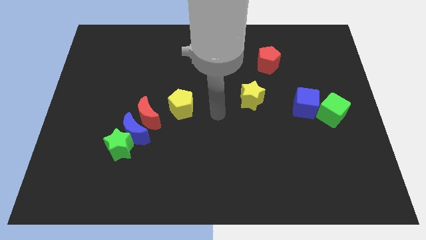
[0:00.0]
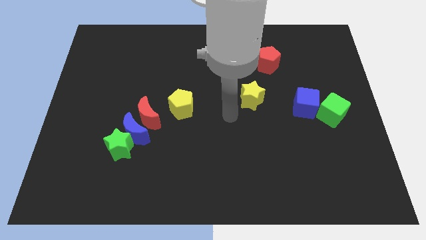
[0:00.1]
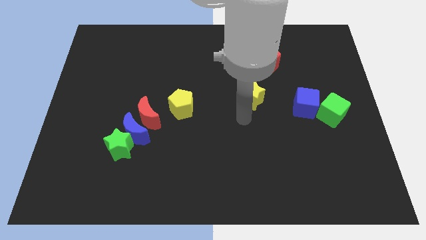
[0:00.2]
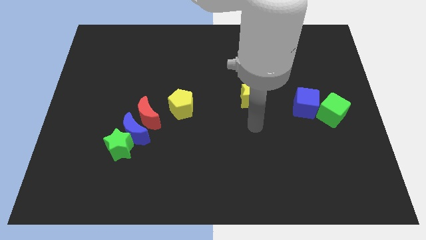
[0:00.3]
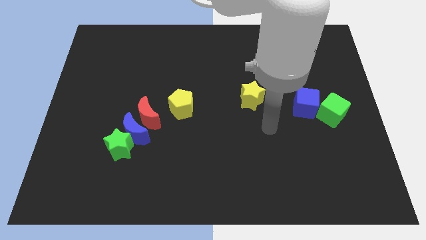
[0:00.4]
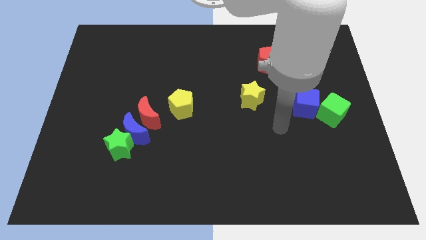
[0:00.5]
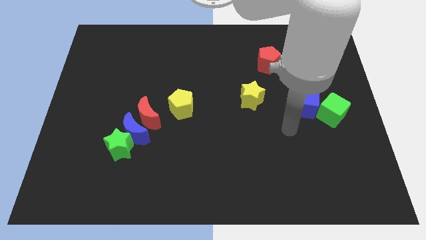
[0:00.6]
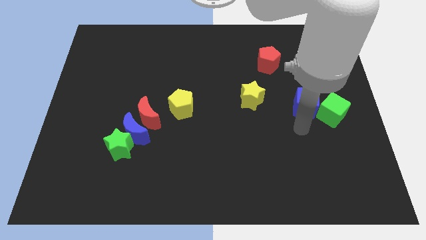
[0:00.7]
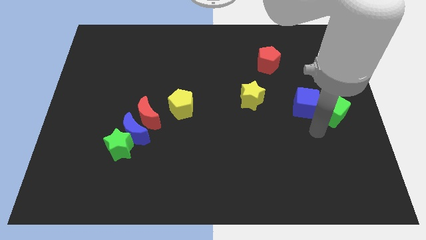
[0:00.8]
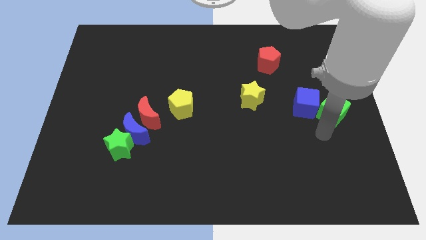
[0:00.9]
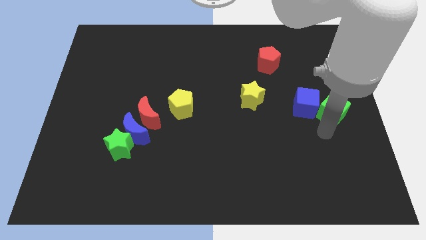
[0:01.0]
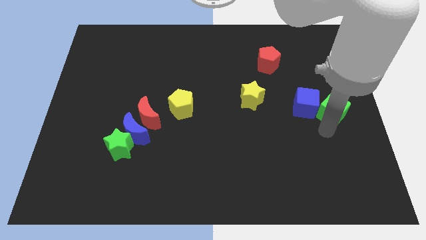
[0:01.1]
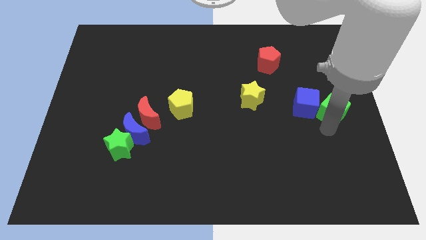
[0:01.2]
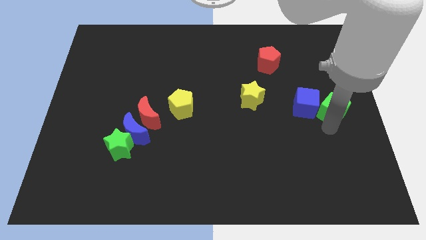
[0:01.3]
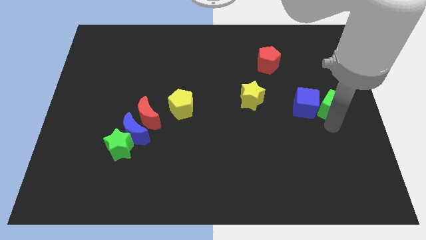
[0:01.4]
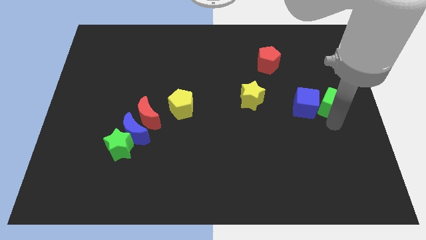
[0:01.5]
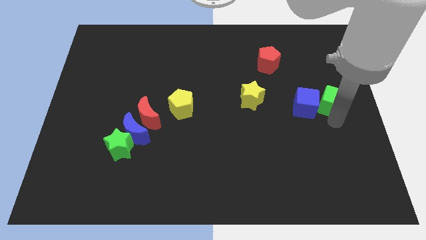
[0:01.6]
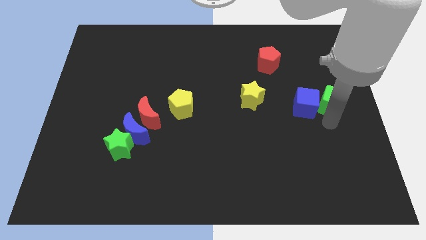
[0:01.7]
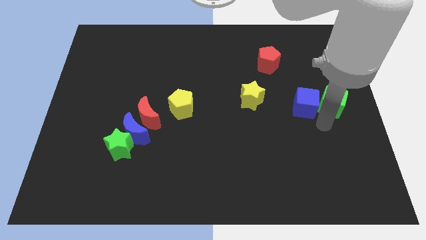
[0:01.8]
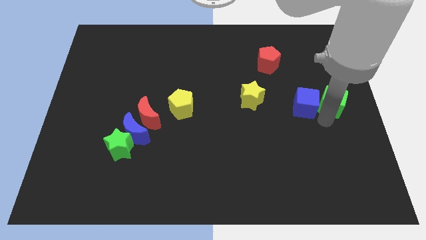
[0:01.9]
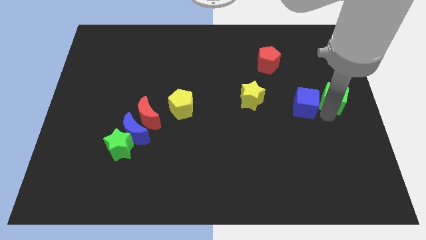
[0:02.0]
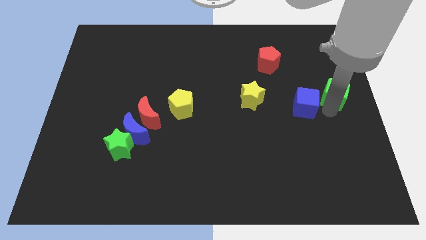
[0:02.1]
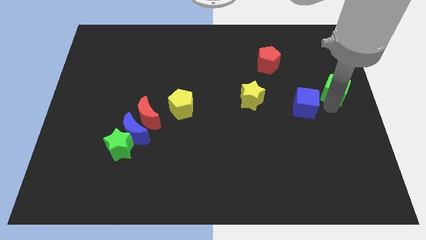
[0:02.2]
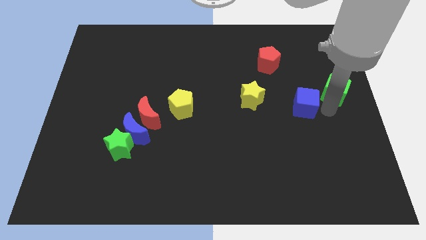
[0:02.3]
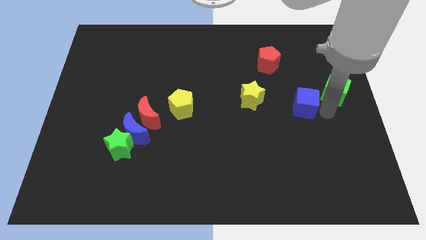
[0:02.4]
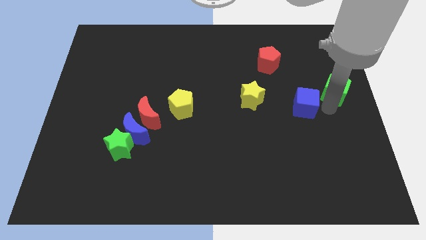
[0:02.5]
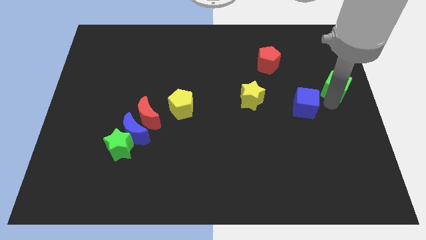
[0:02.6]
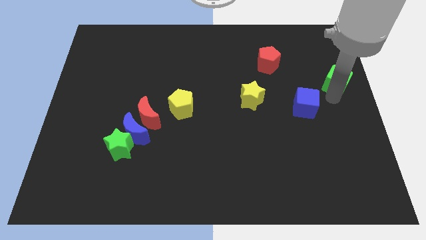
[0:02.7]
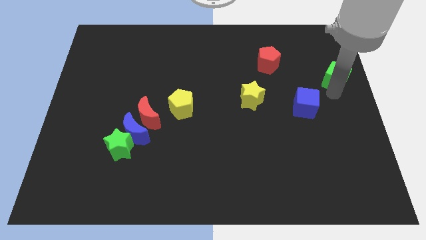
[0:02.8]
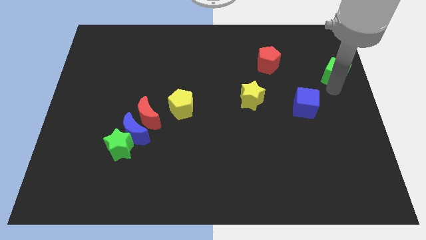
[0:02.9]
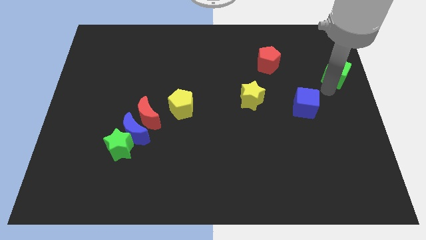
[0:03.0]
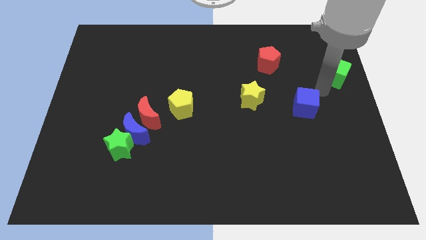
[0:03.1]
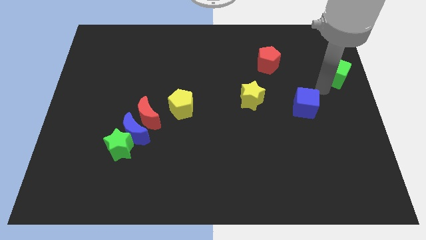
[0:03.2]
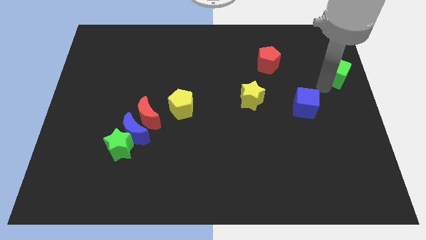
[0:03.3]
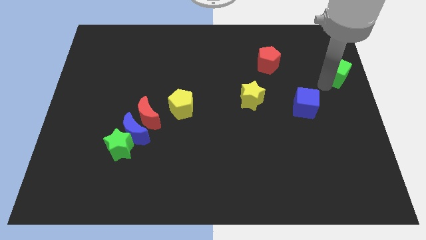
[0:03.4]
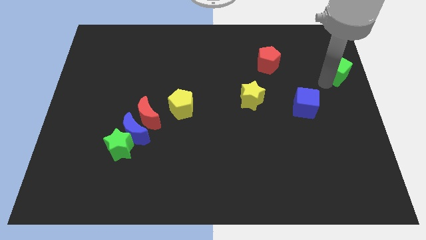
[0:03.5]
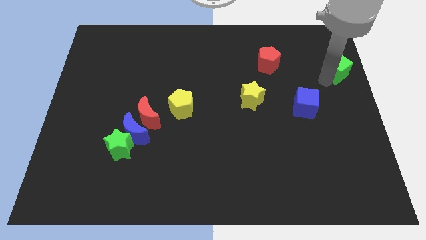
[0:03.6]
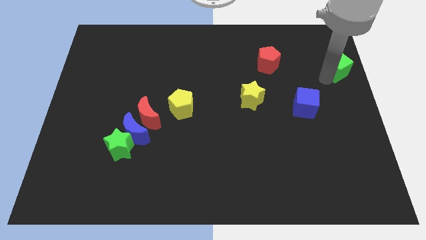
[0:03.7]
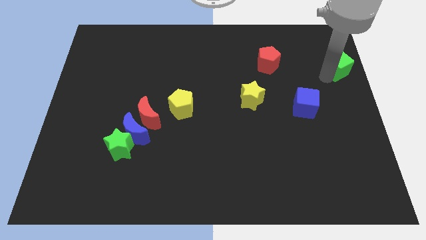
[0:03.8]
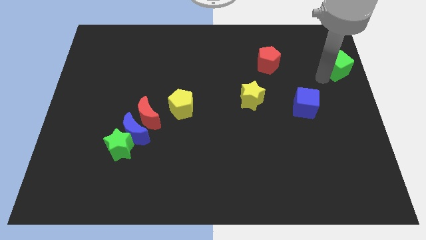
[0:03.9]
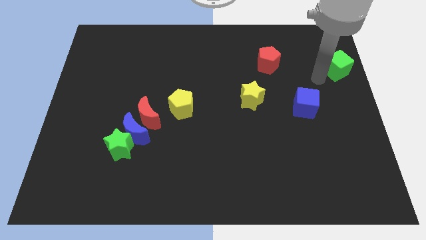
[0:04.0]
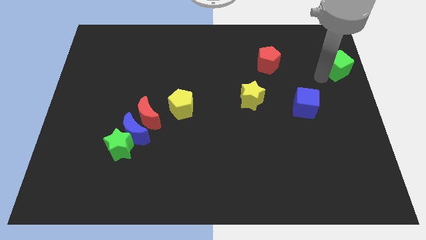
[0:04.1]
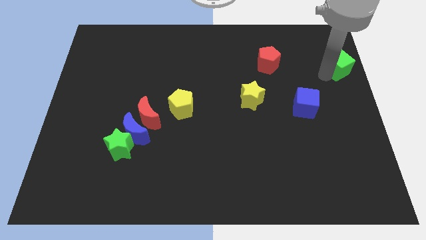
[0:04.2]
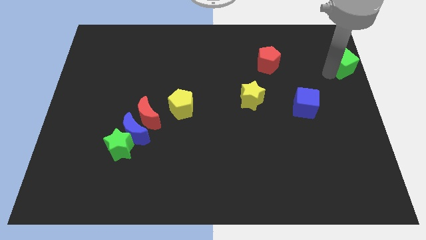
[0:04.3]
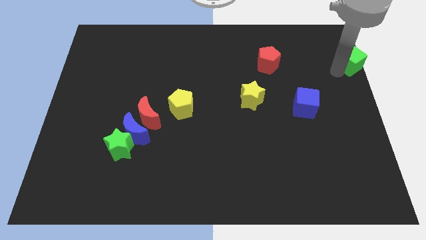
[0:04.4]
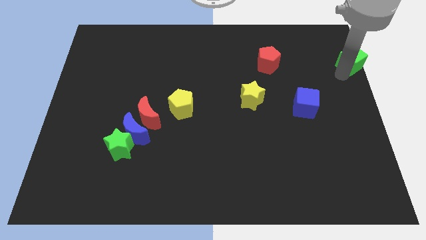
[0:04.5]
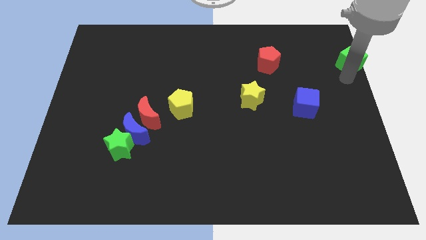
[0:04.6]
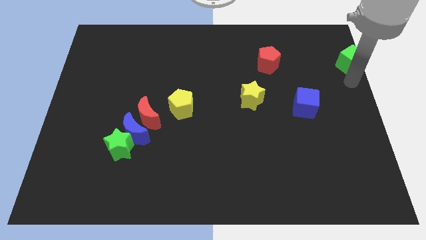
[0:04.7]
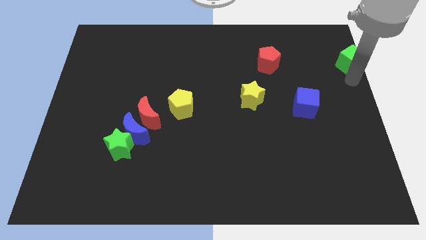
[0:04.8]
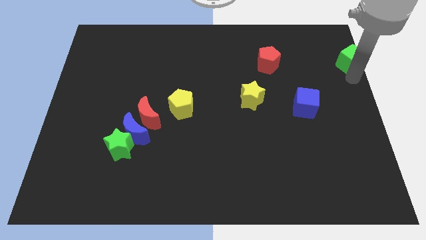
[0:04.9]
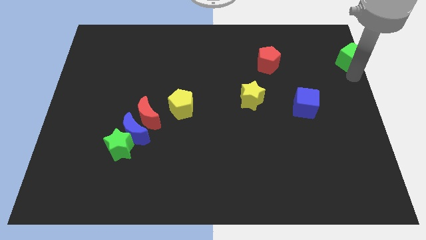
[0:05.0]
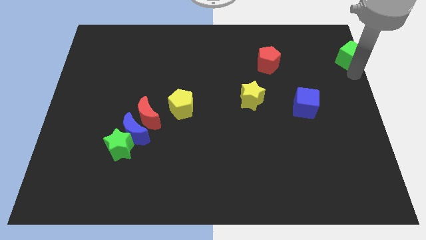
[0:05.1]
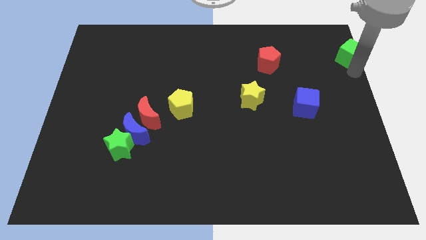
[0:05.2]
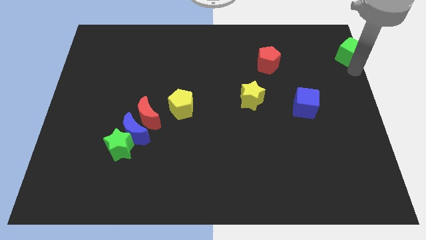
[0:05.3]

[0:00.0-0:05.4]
slide the green cube to the top right corner

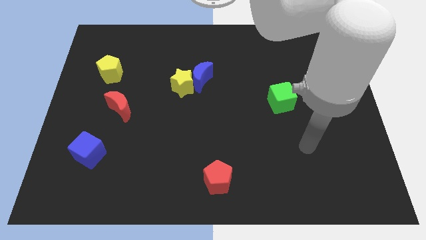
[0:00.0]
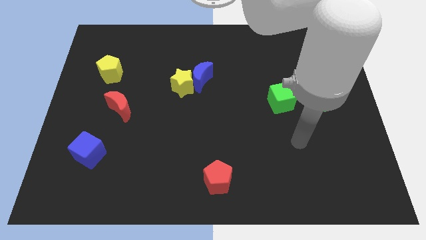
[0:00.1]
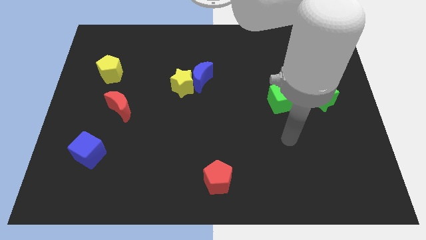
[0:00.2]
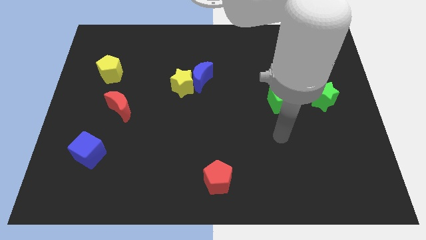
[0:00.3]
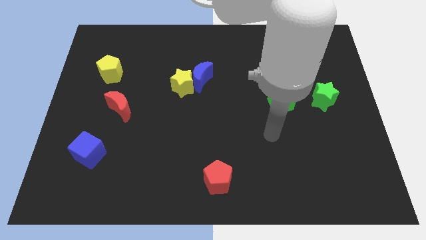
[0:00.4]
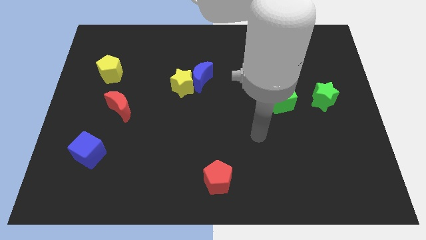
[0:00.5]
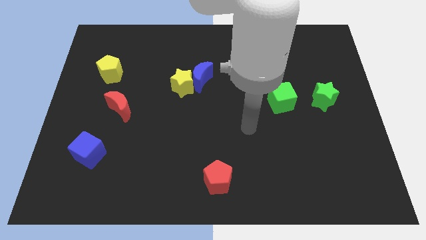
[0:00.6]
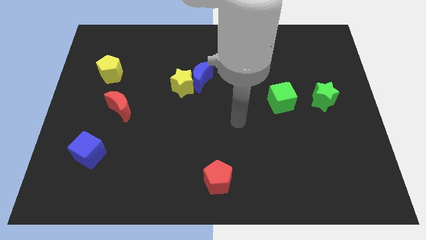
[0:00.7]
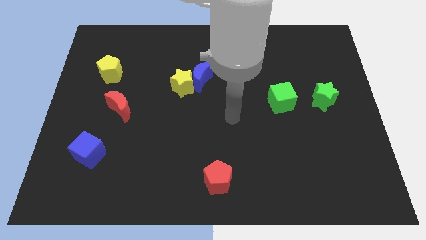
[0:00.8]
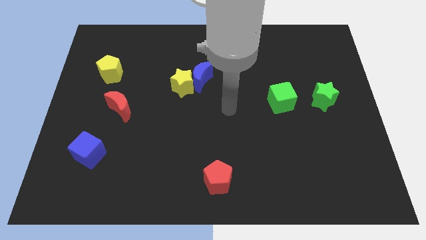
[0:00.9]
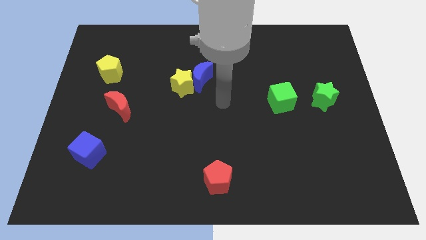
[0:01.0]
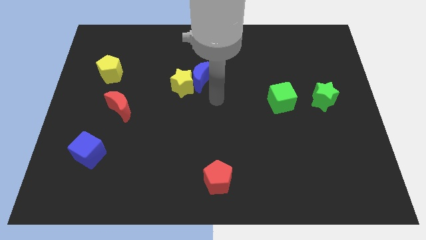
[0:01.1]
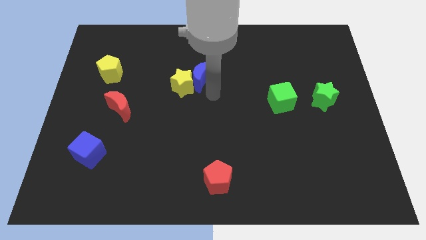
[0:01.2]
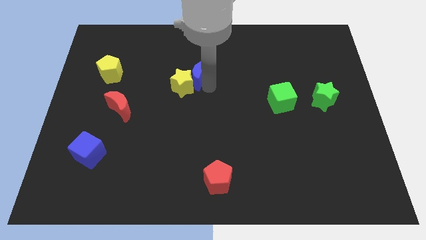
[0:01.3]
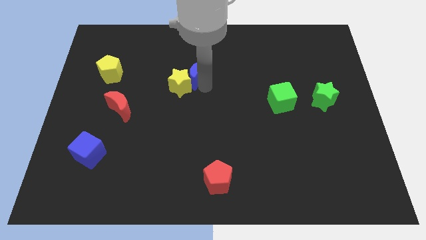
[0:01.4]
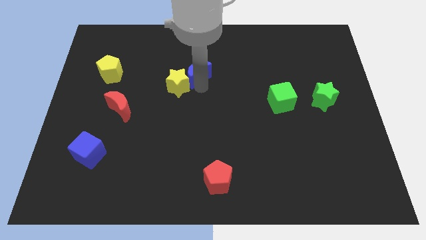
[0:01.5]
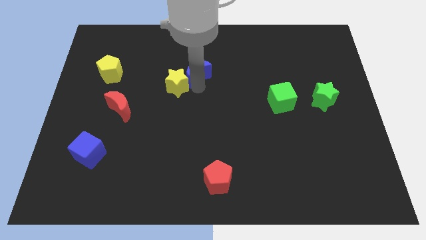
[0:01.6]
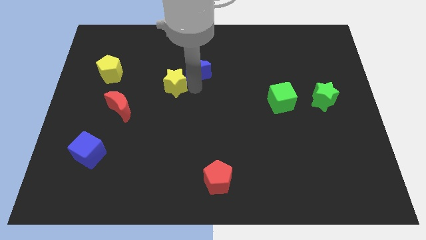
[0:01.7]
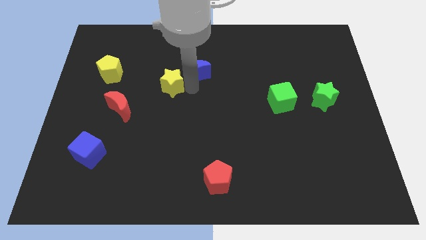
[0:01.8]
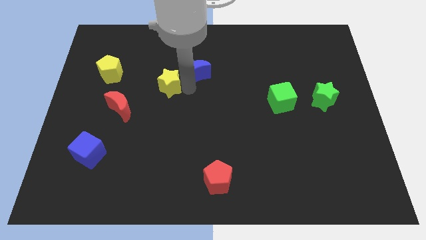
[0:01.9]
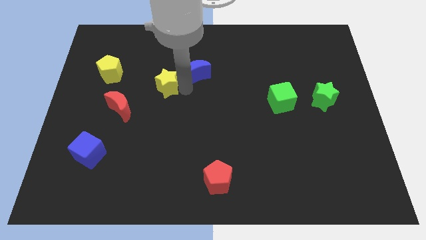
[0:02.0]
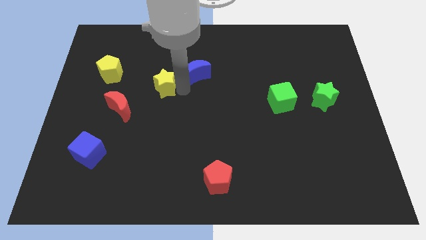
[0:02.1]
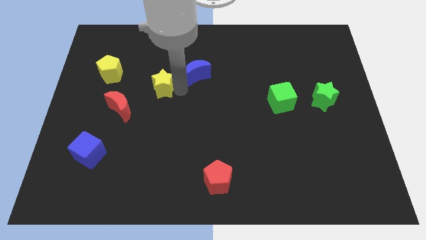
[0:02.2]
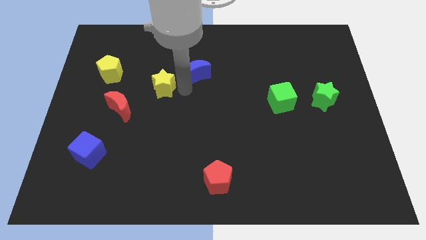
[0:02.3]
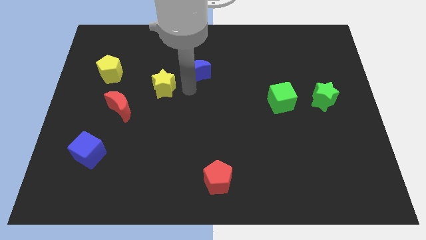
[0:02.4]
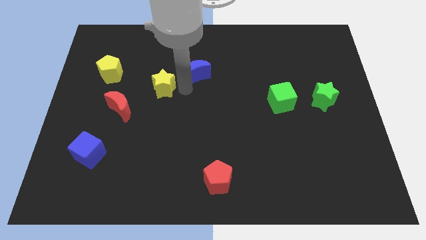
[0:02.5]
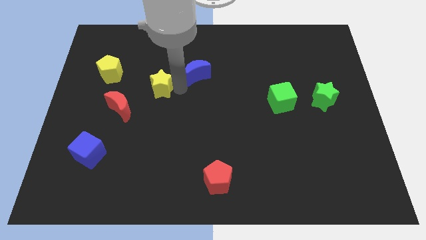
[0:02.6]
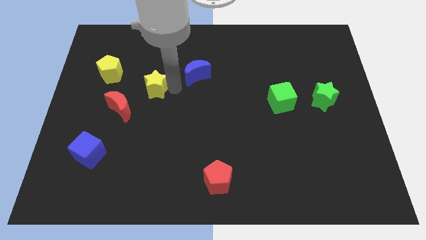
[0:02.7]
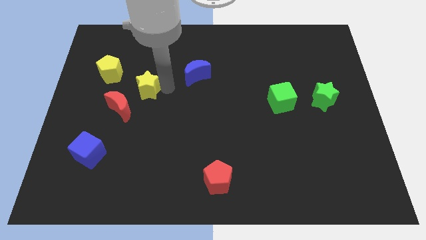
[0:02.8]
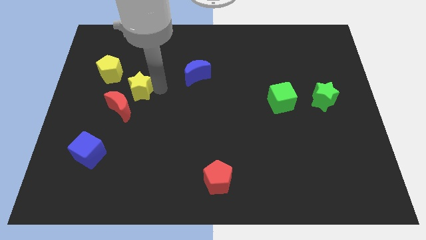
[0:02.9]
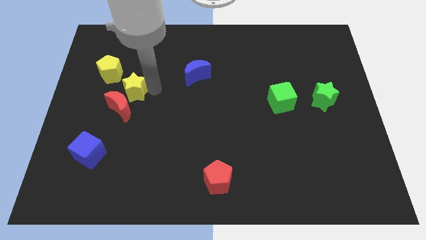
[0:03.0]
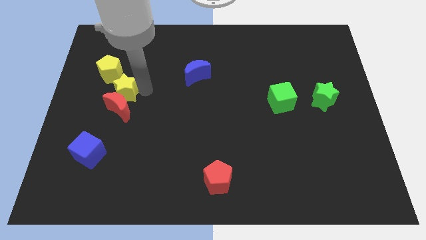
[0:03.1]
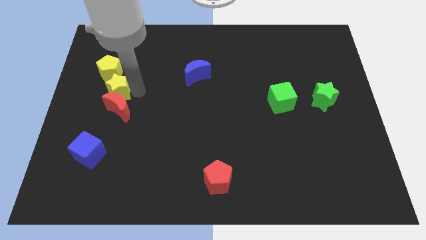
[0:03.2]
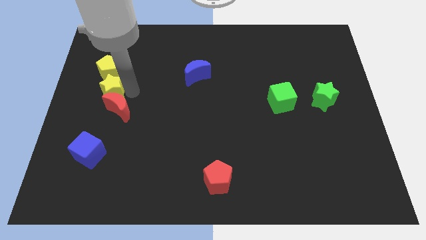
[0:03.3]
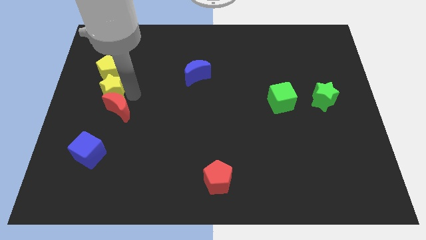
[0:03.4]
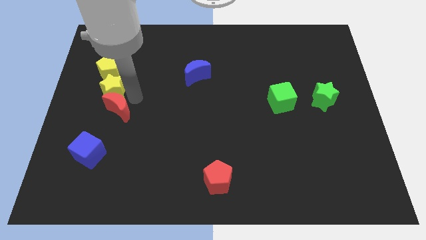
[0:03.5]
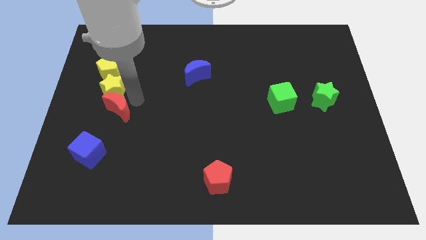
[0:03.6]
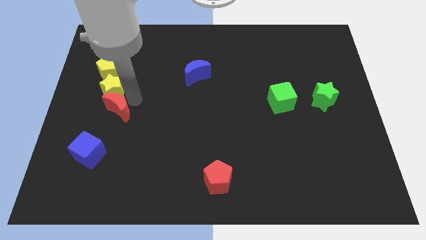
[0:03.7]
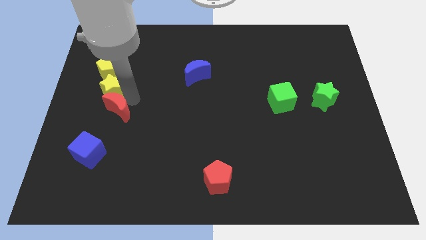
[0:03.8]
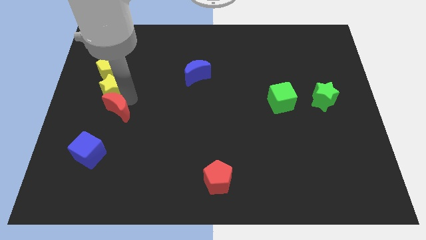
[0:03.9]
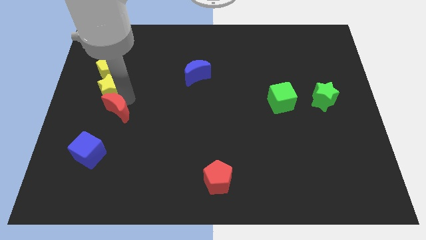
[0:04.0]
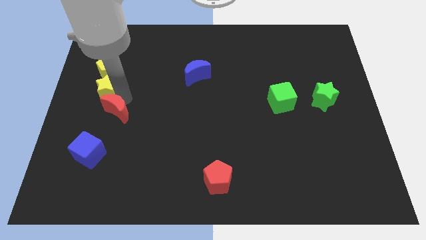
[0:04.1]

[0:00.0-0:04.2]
slide the yellow star to the center left
